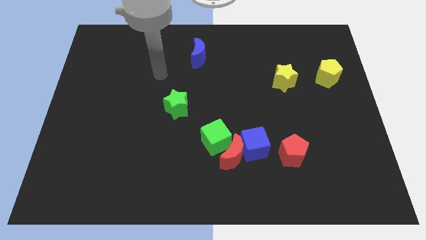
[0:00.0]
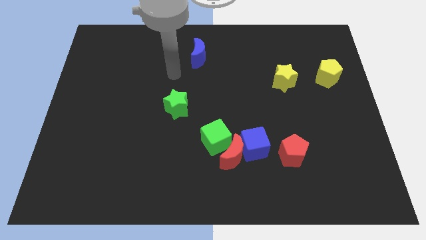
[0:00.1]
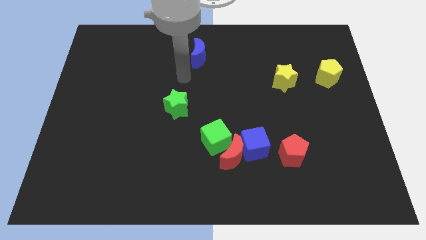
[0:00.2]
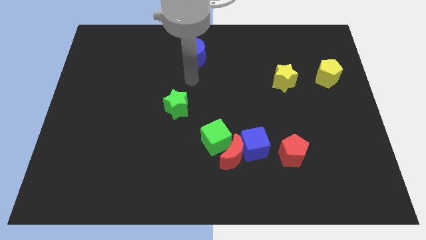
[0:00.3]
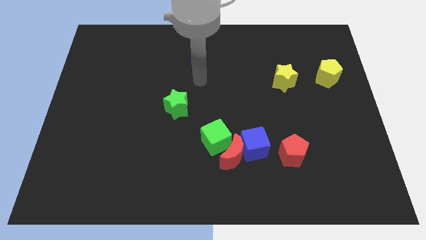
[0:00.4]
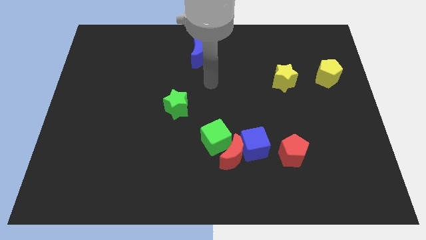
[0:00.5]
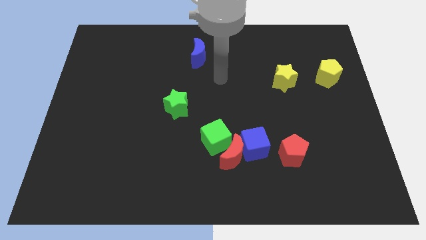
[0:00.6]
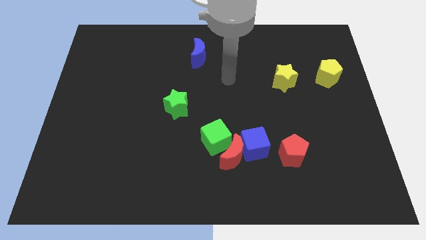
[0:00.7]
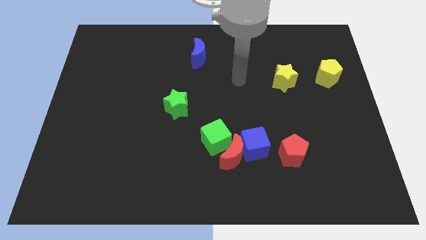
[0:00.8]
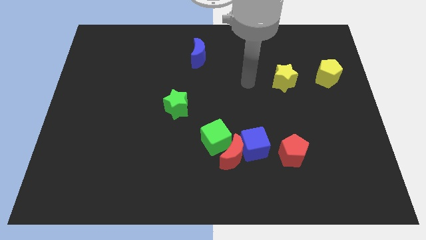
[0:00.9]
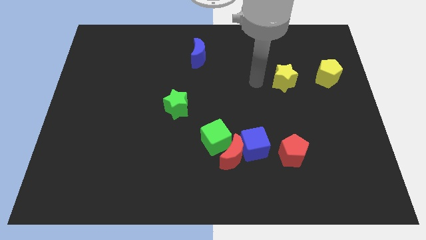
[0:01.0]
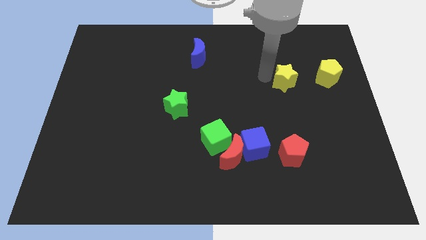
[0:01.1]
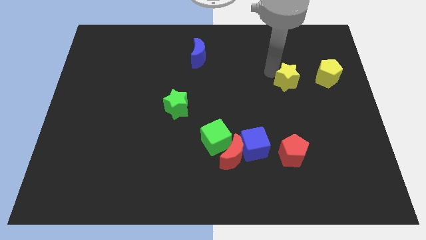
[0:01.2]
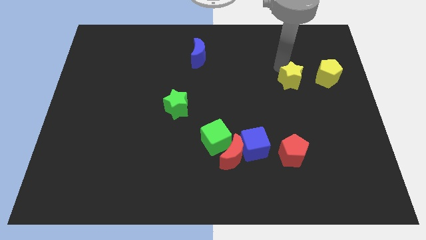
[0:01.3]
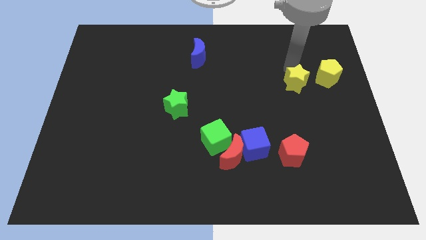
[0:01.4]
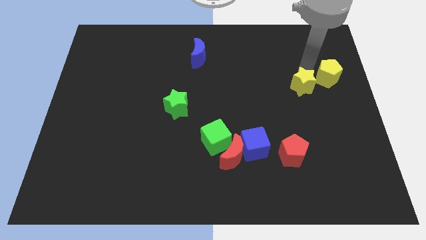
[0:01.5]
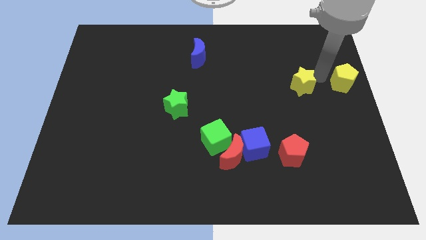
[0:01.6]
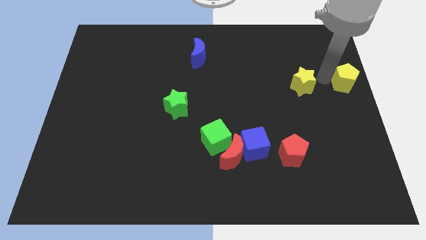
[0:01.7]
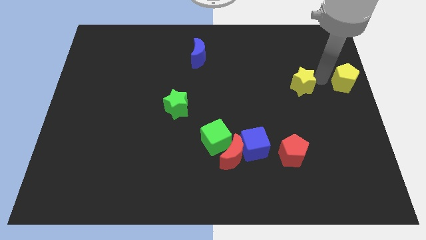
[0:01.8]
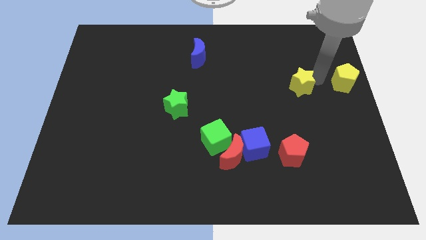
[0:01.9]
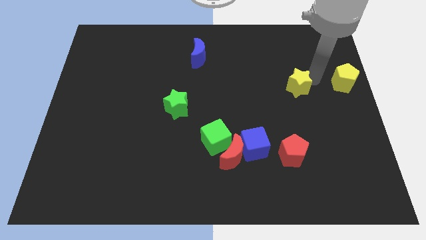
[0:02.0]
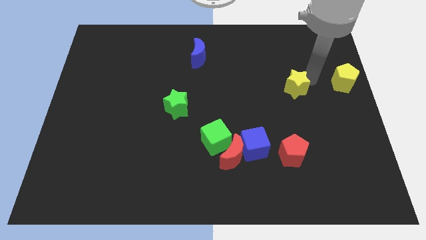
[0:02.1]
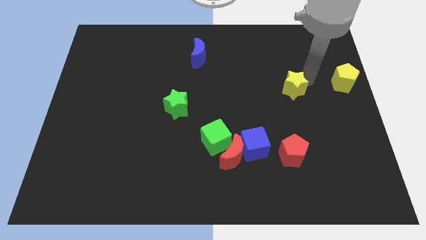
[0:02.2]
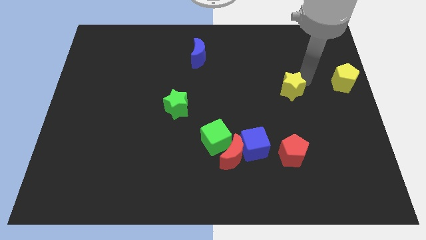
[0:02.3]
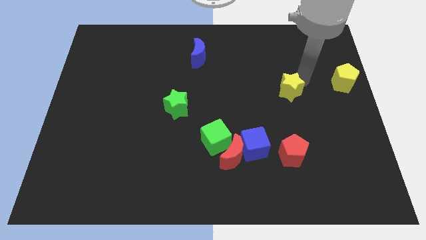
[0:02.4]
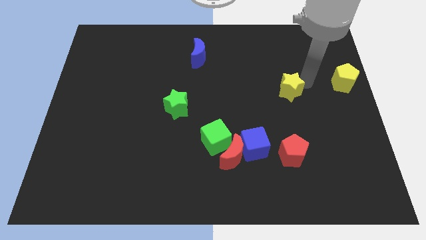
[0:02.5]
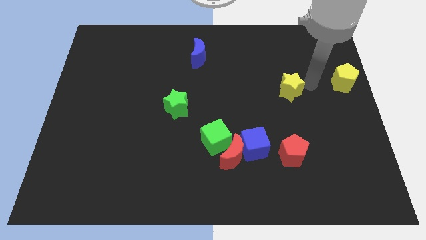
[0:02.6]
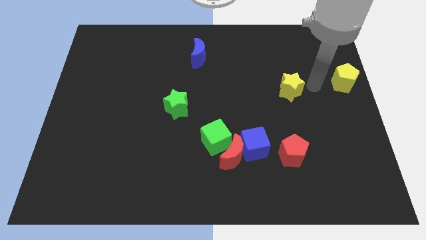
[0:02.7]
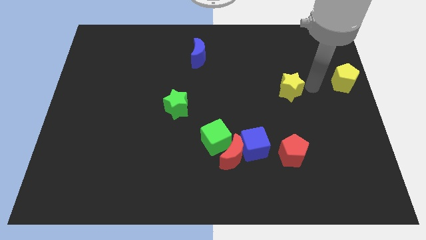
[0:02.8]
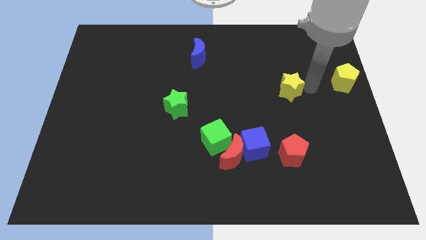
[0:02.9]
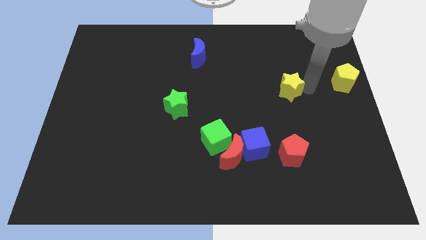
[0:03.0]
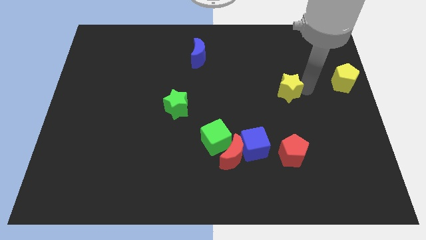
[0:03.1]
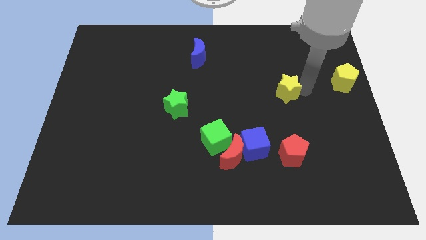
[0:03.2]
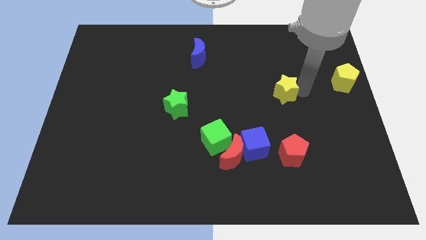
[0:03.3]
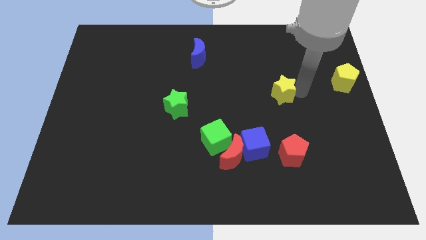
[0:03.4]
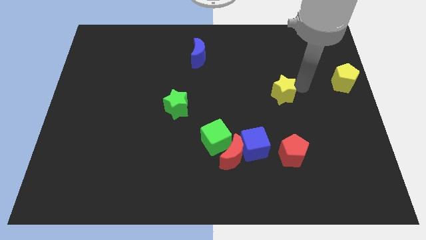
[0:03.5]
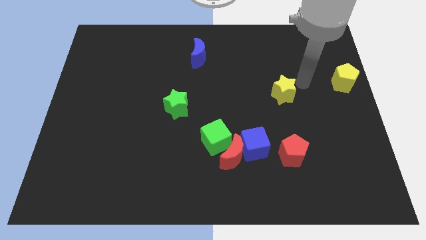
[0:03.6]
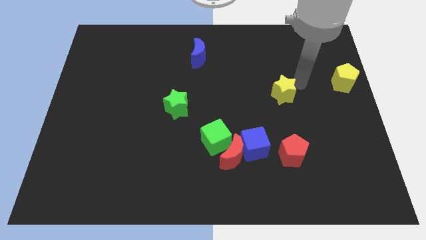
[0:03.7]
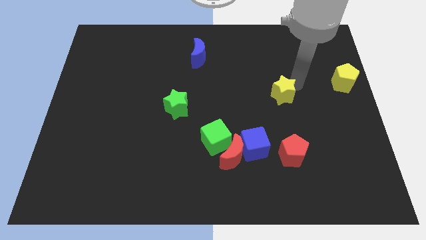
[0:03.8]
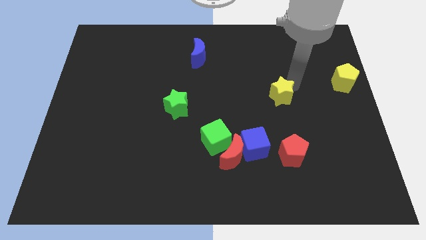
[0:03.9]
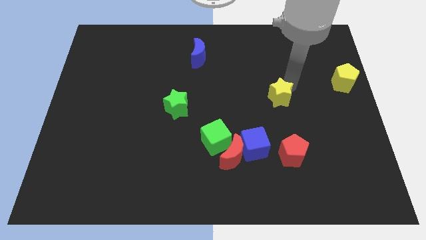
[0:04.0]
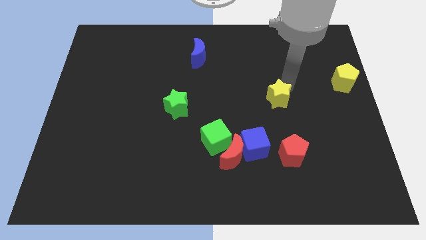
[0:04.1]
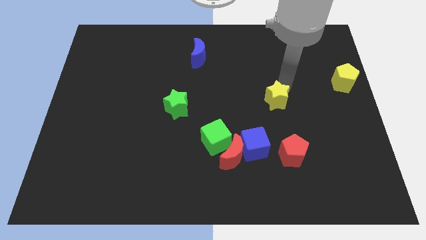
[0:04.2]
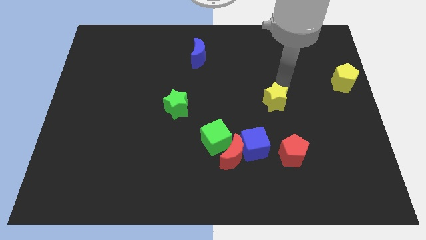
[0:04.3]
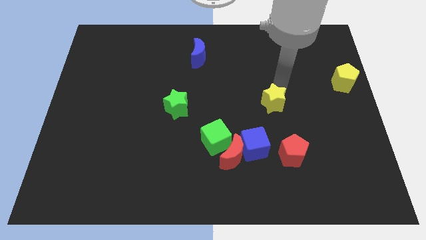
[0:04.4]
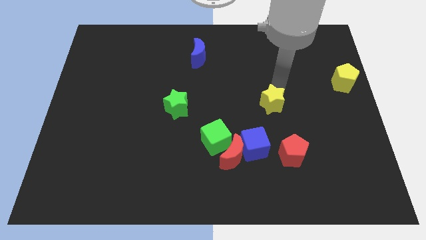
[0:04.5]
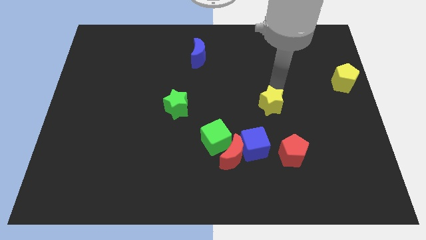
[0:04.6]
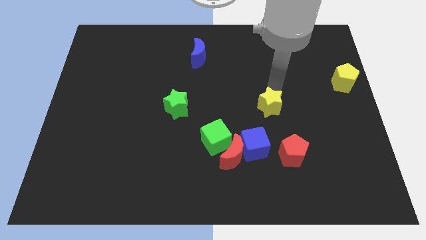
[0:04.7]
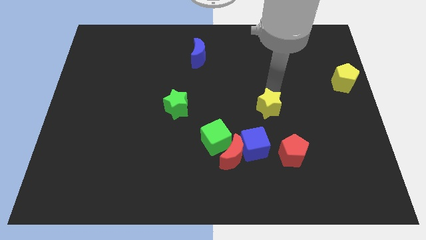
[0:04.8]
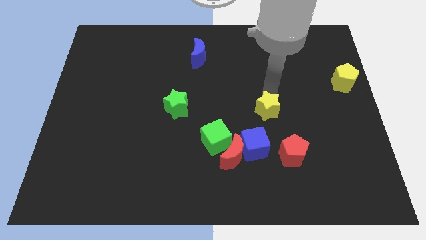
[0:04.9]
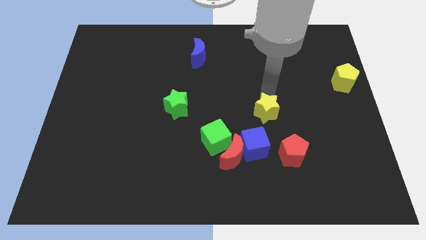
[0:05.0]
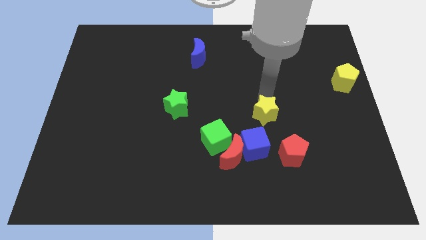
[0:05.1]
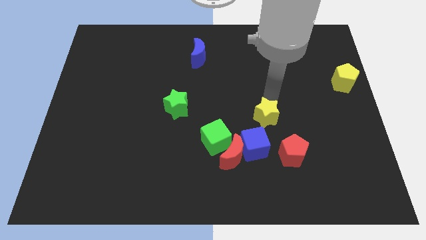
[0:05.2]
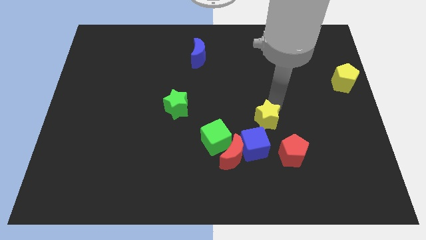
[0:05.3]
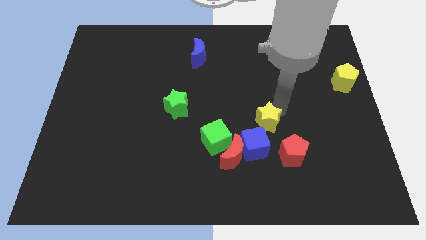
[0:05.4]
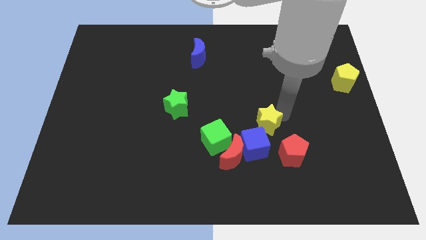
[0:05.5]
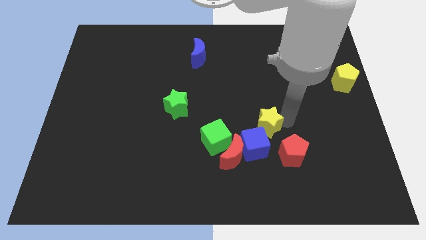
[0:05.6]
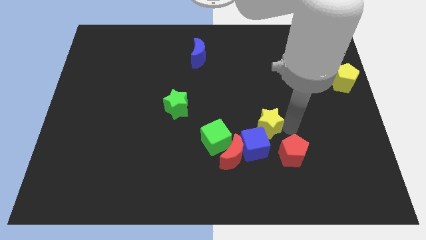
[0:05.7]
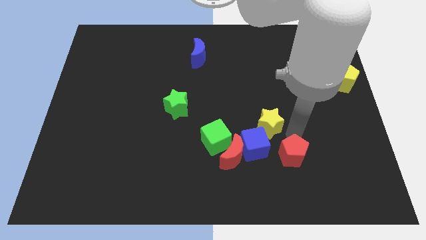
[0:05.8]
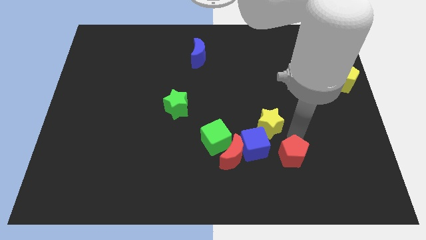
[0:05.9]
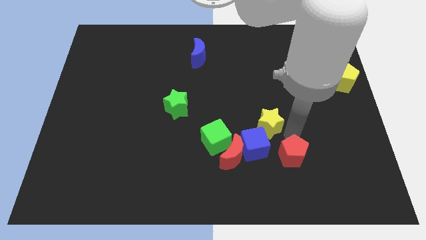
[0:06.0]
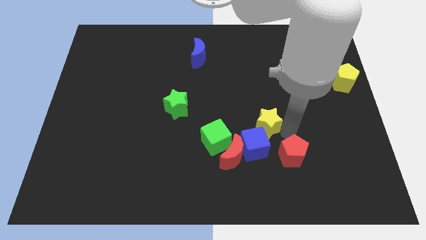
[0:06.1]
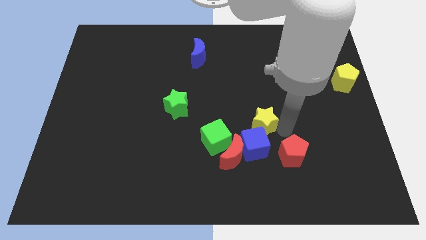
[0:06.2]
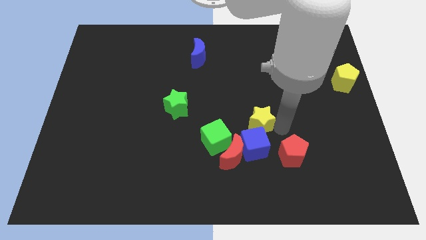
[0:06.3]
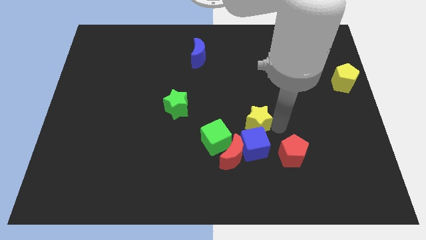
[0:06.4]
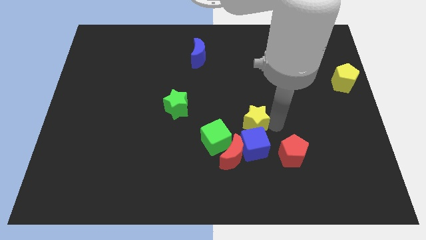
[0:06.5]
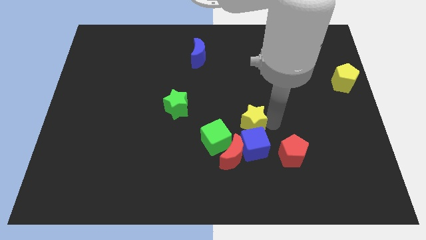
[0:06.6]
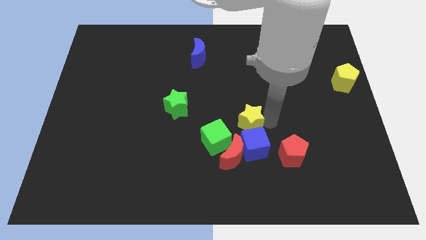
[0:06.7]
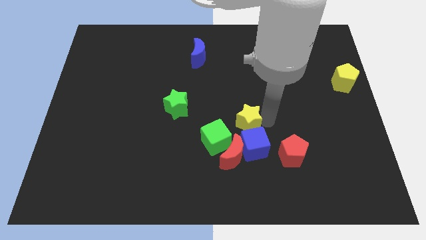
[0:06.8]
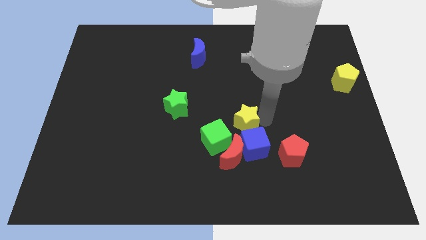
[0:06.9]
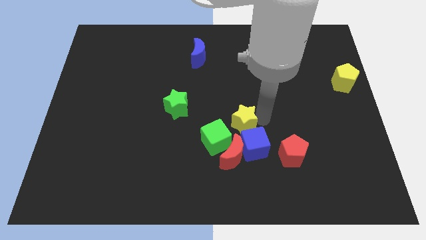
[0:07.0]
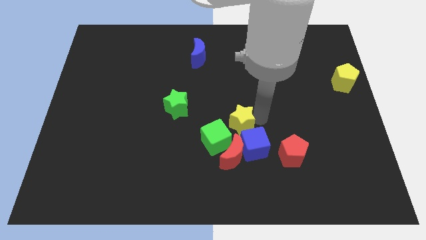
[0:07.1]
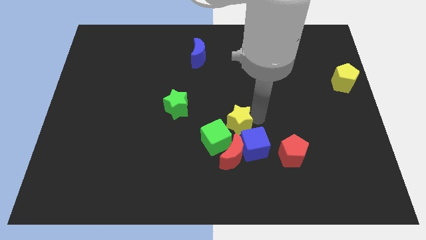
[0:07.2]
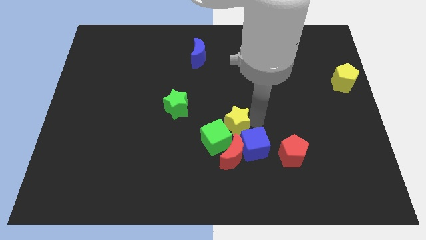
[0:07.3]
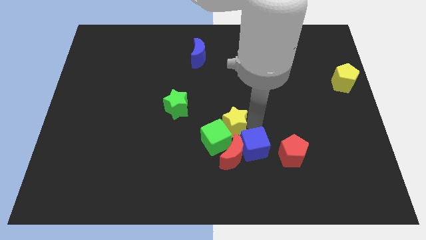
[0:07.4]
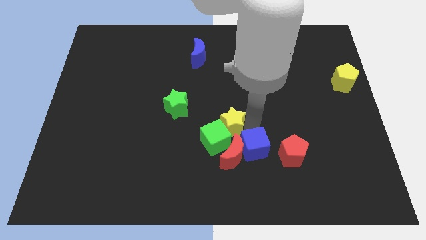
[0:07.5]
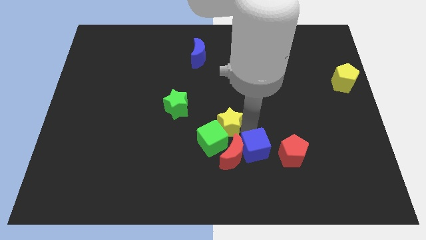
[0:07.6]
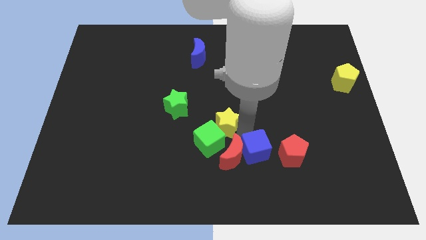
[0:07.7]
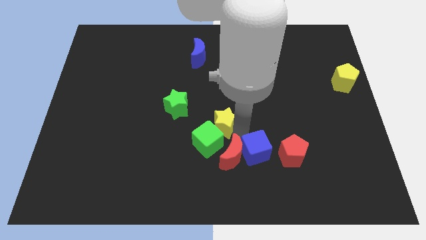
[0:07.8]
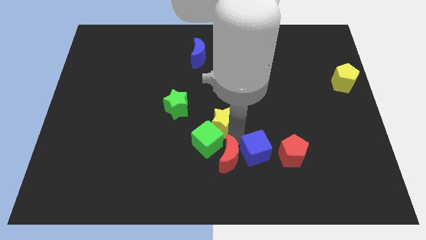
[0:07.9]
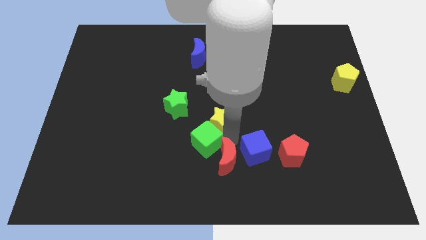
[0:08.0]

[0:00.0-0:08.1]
put the yellow star diagonally down and to the right of the green star
